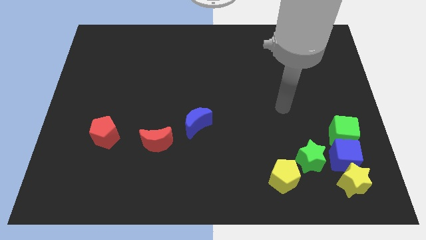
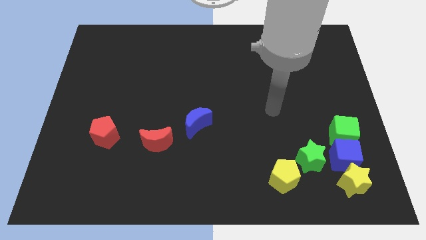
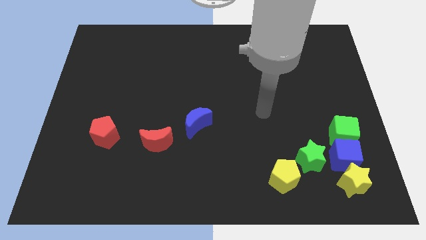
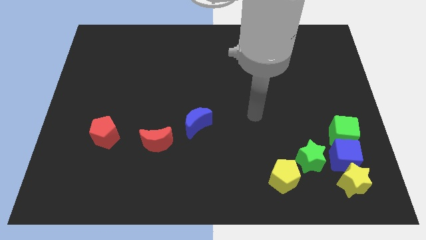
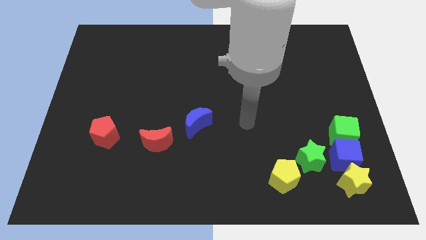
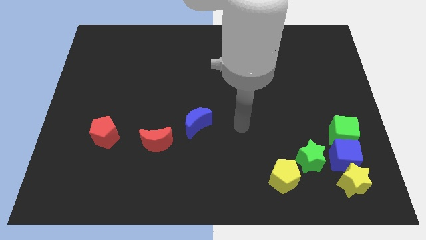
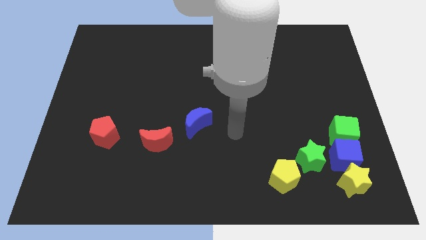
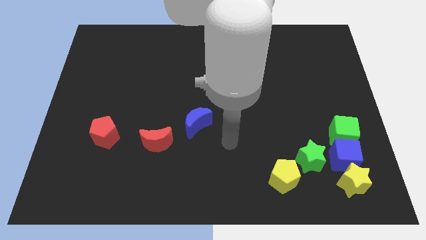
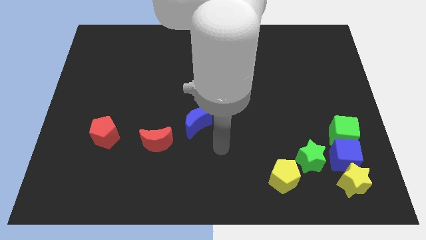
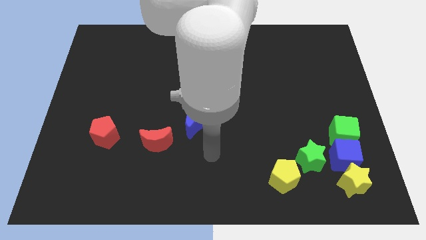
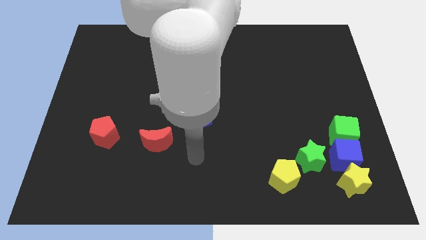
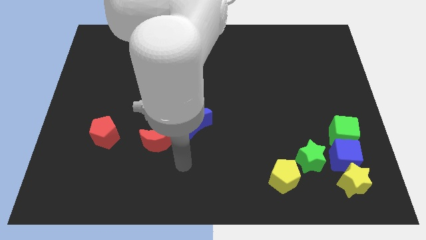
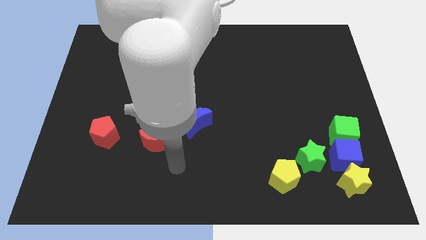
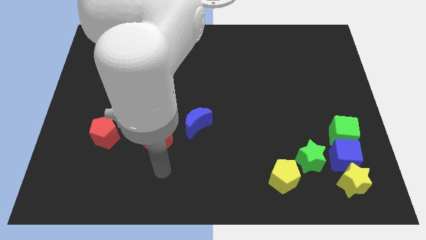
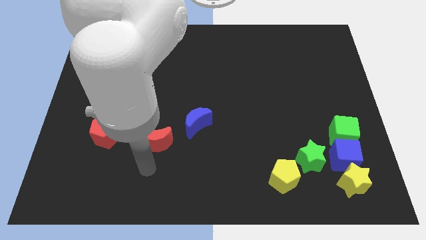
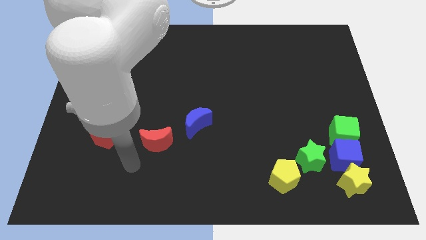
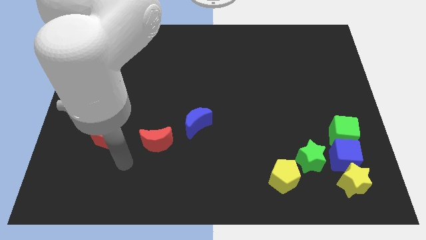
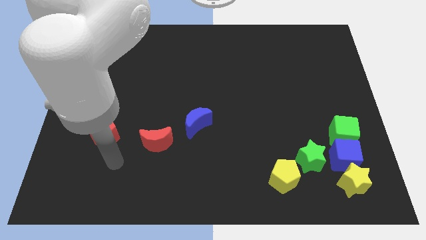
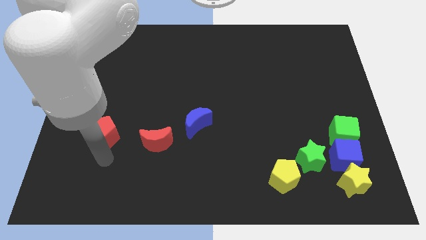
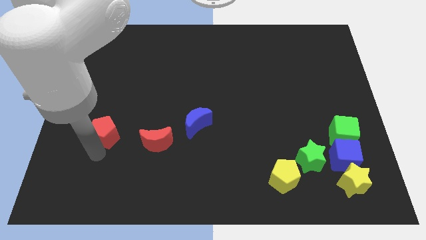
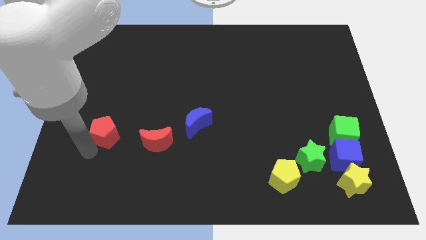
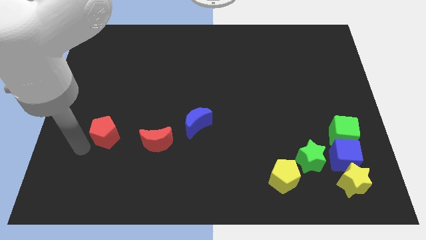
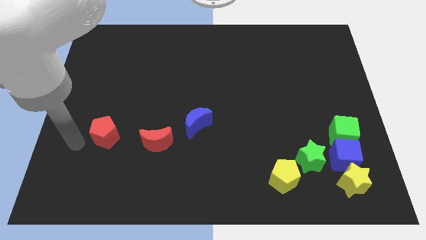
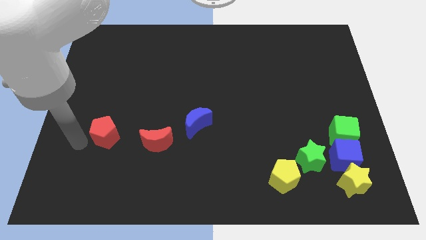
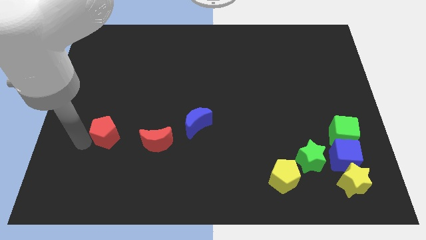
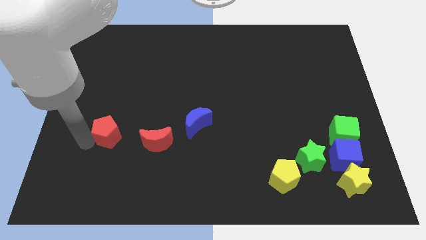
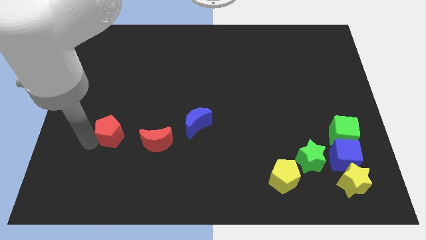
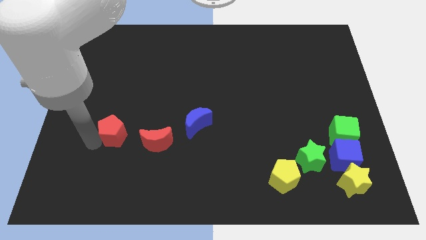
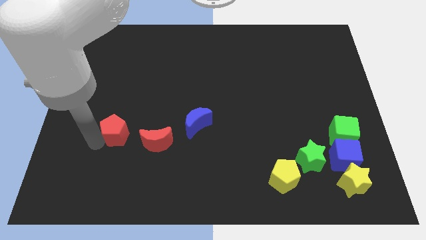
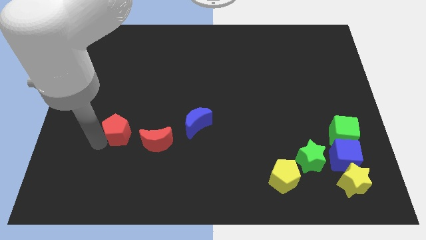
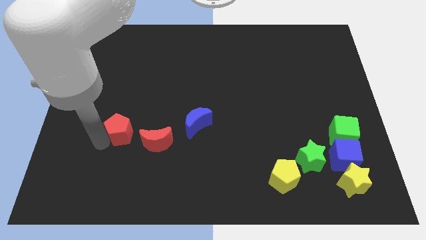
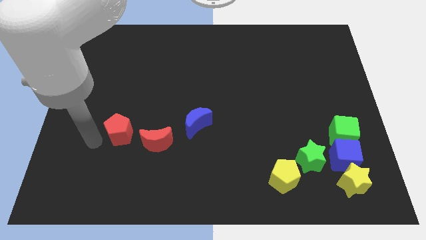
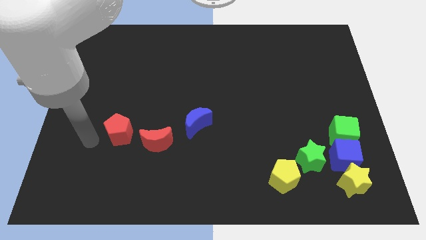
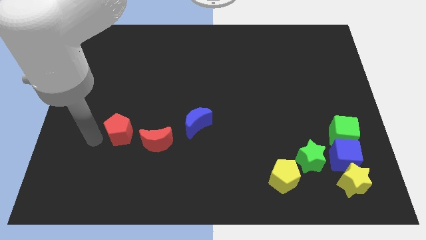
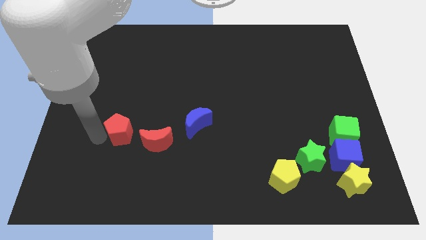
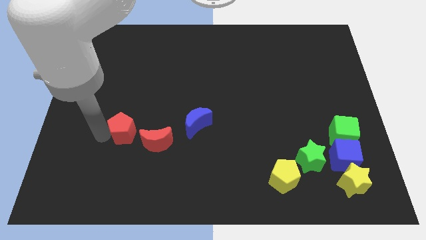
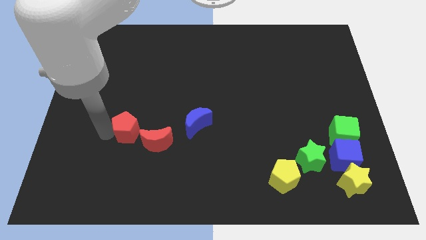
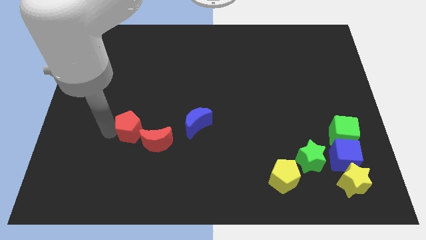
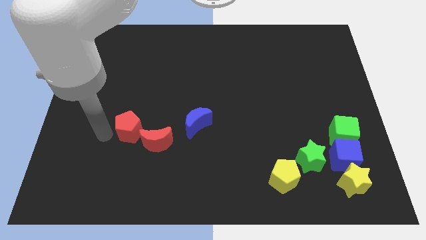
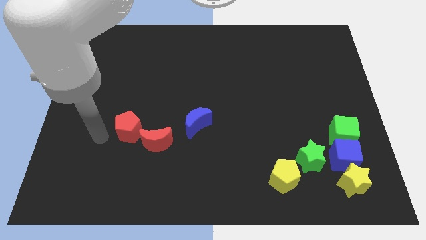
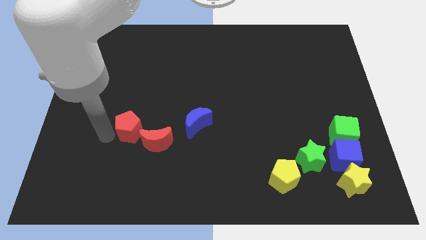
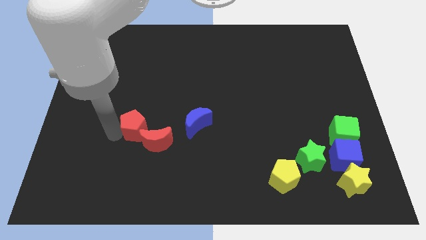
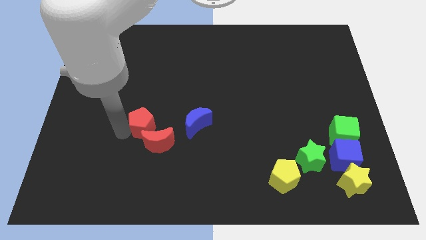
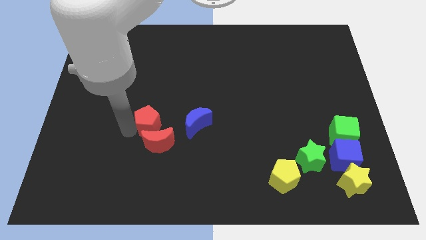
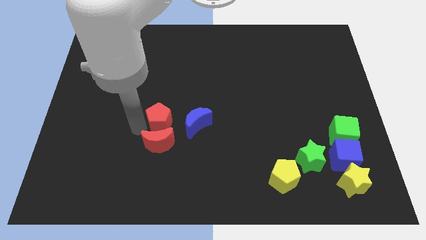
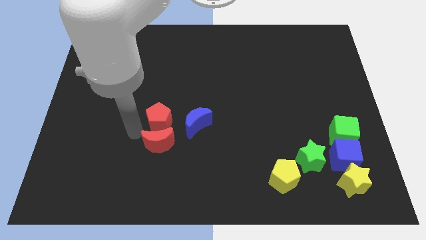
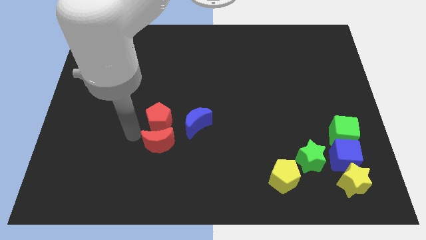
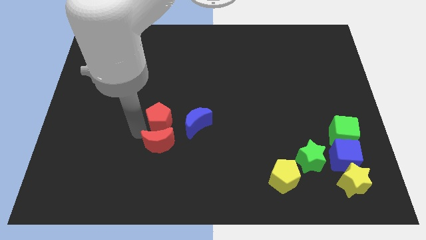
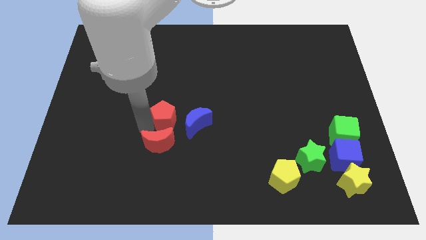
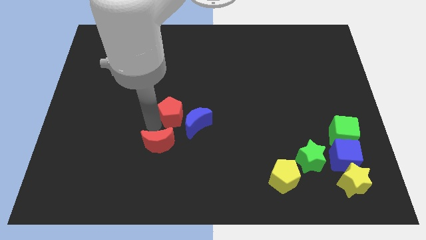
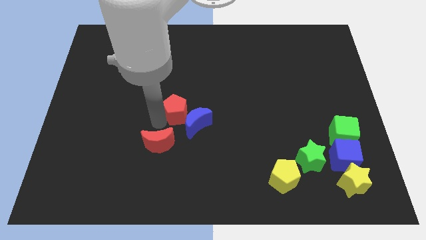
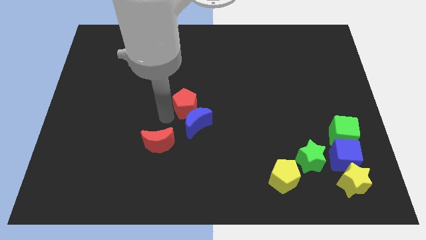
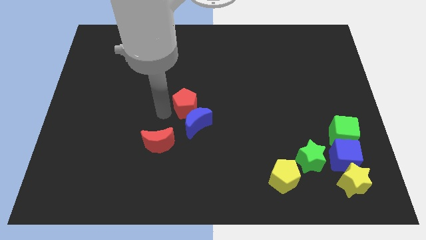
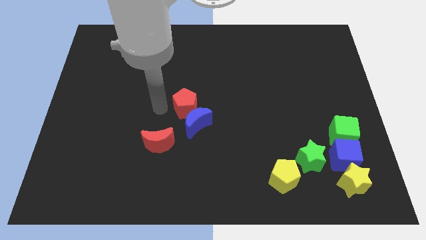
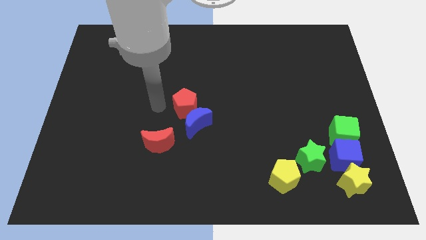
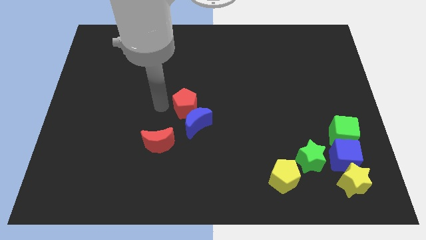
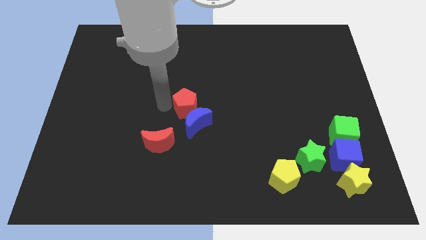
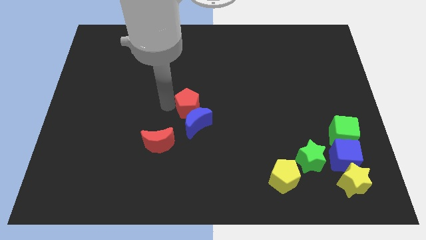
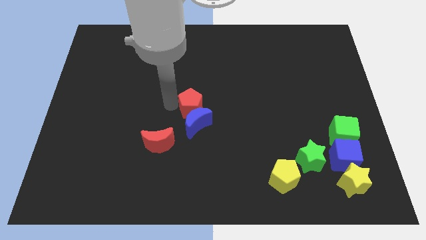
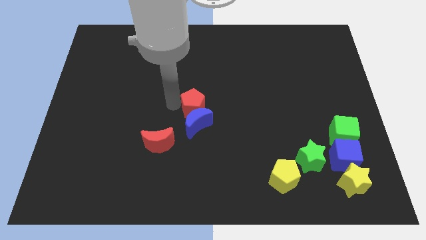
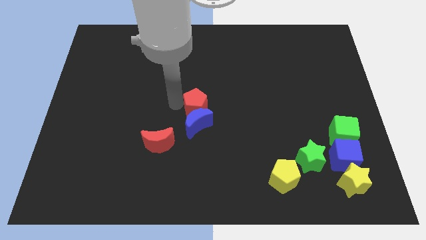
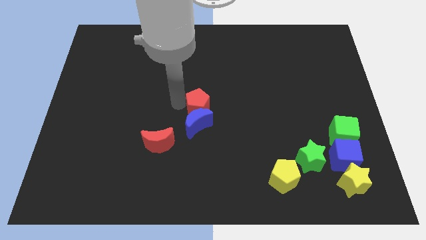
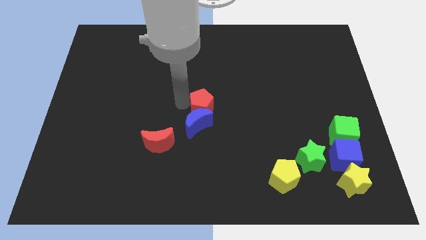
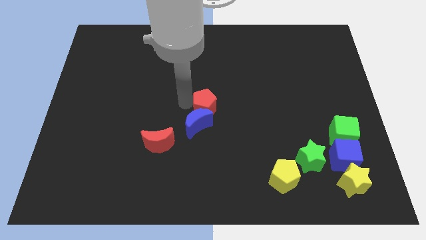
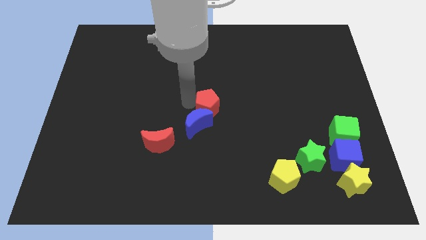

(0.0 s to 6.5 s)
push the red pentagon right

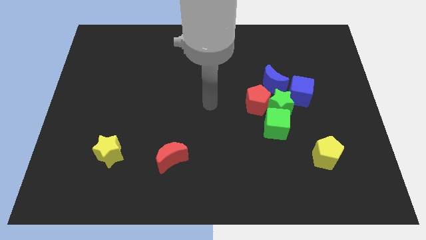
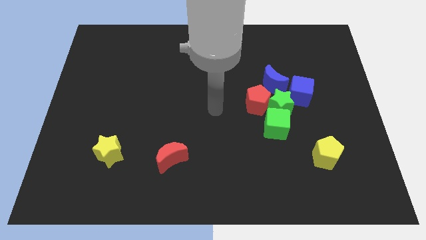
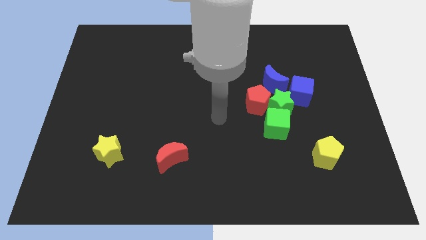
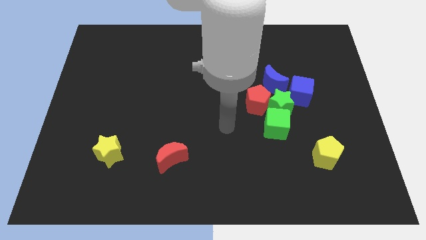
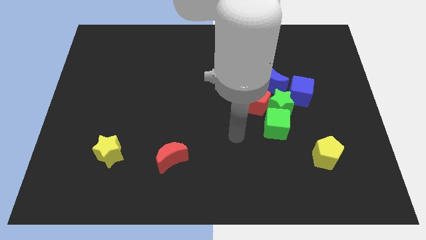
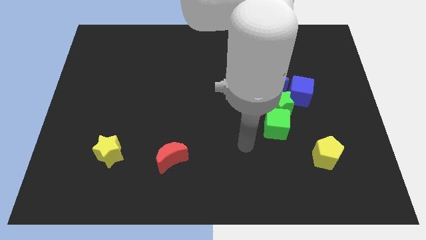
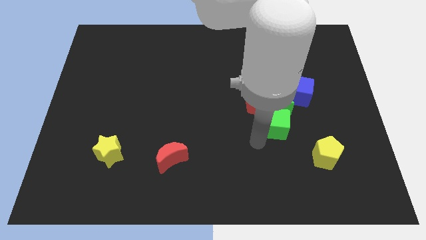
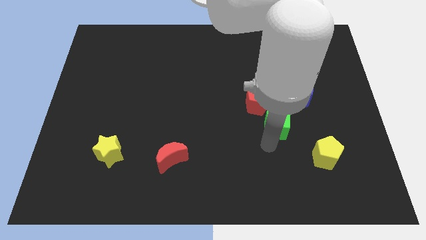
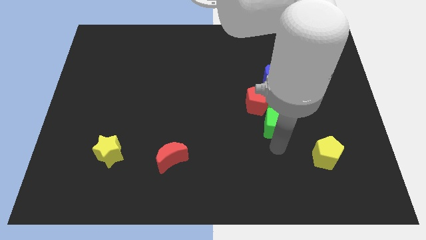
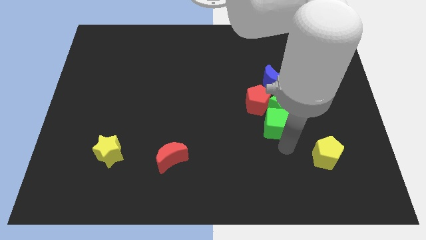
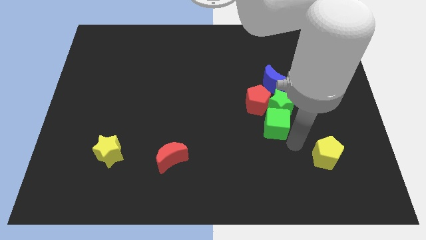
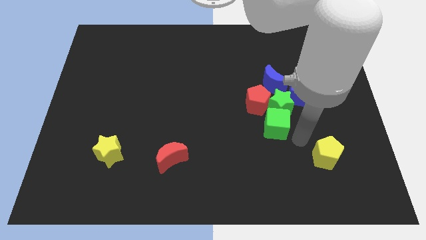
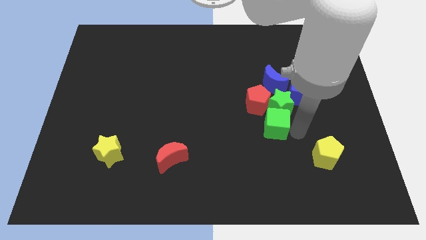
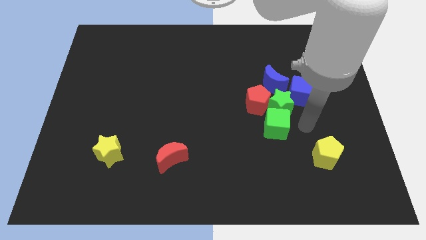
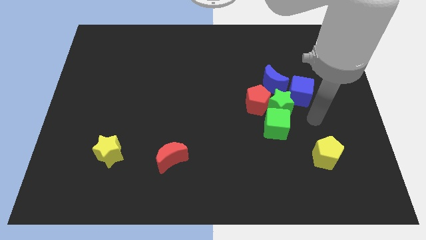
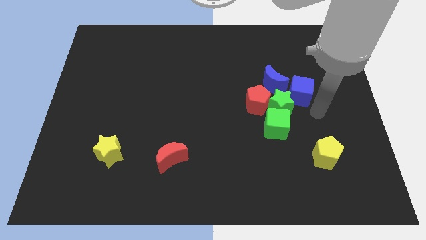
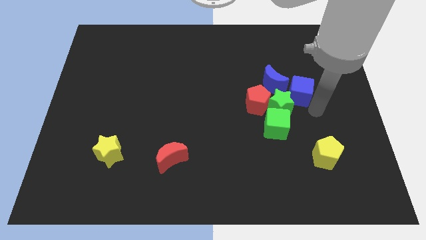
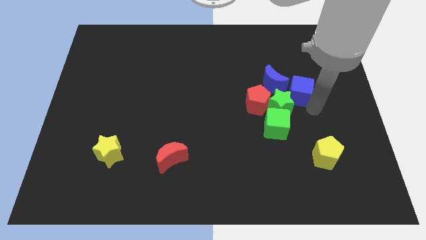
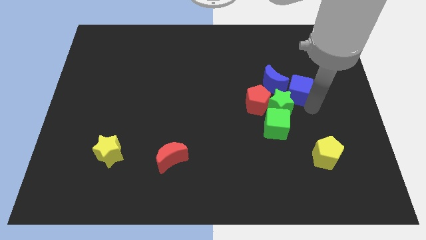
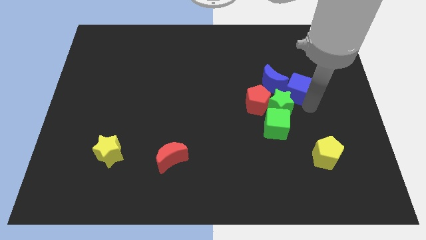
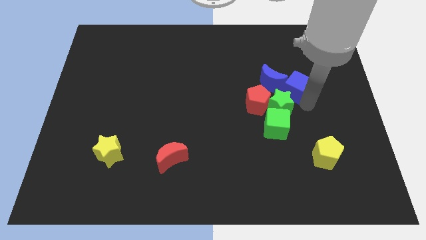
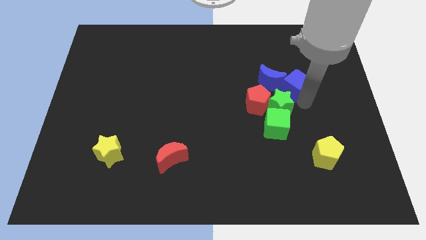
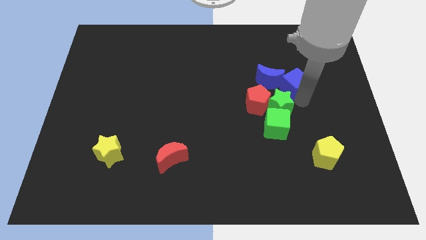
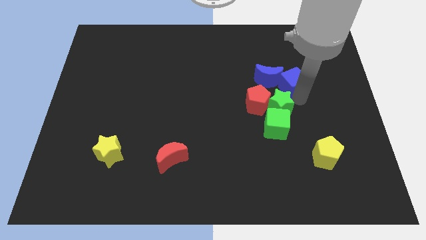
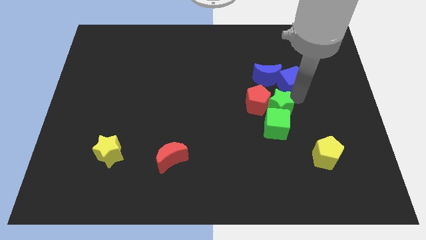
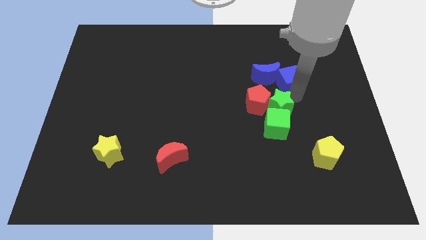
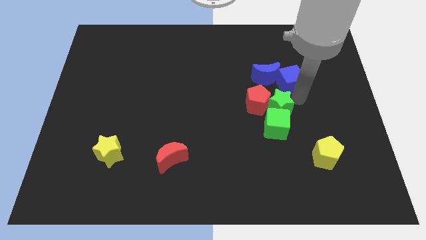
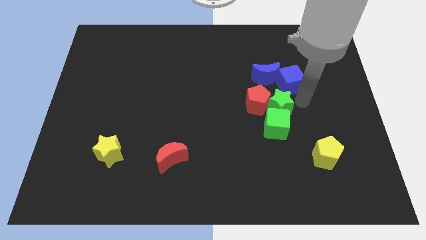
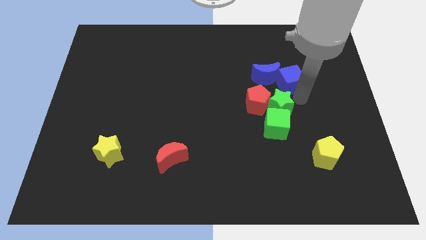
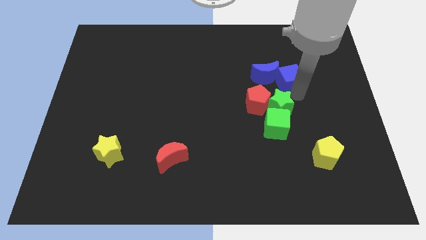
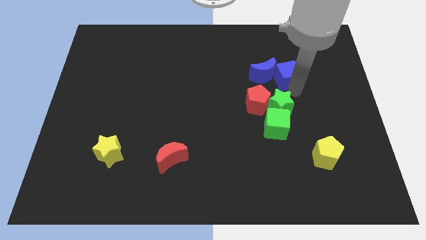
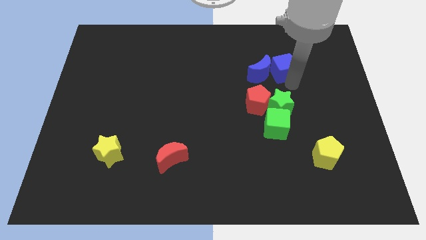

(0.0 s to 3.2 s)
slightly move the blue cube up and then left
